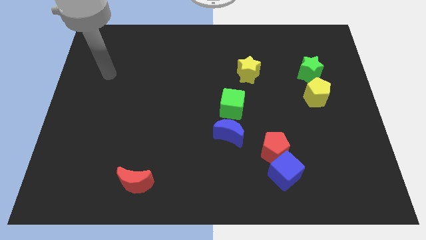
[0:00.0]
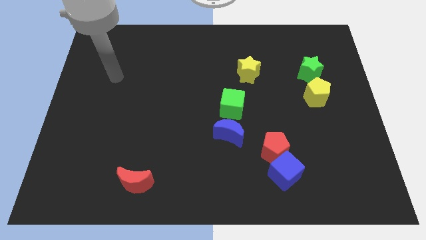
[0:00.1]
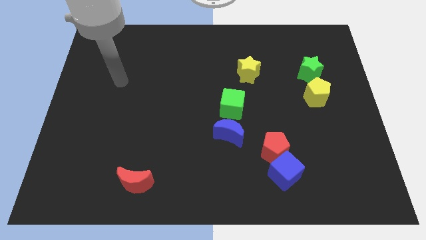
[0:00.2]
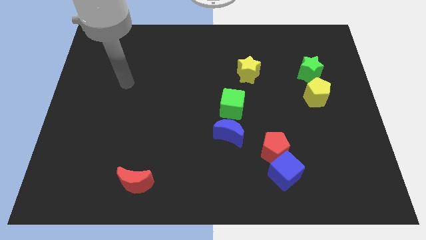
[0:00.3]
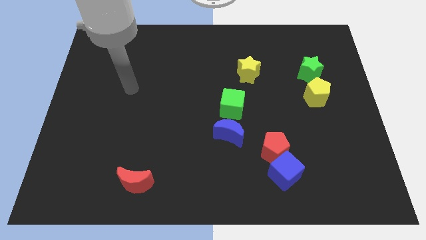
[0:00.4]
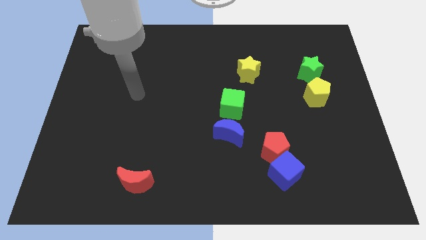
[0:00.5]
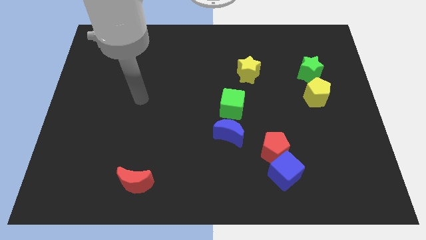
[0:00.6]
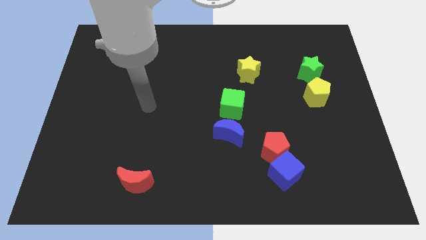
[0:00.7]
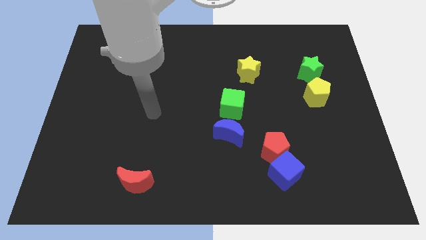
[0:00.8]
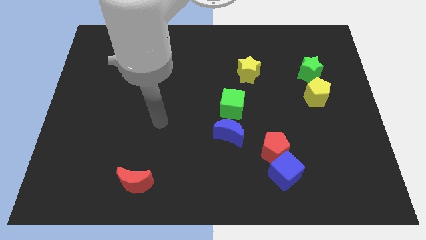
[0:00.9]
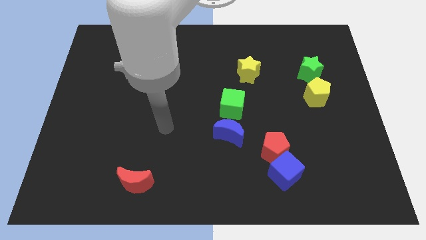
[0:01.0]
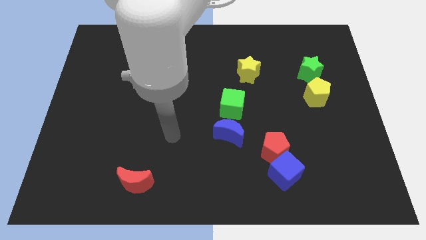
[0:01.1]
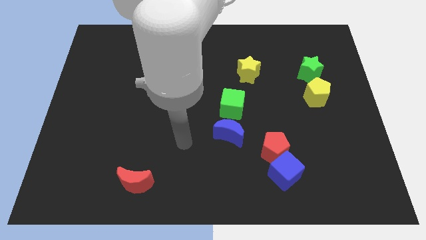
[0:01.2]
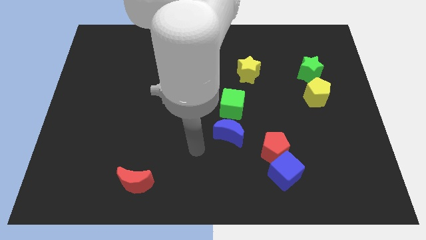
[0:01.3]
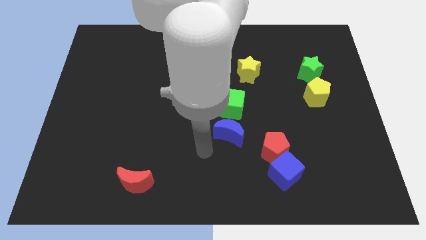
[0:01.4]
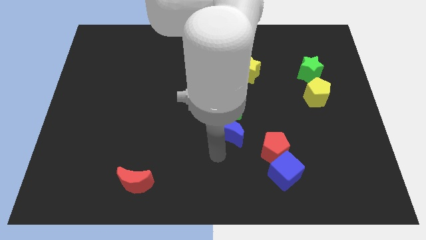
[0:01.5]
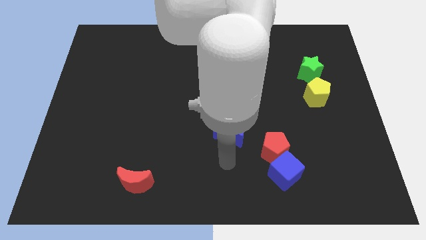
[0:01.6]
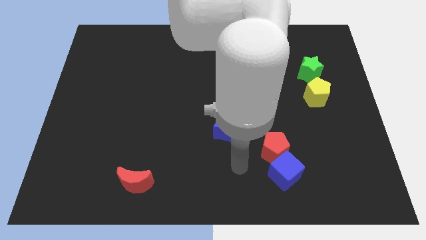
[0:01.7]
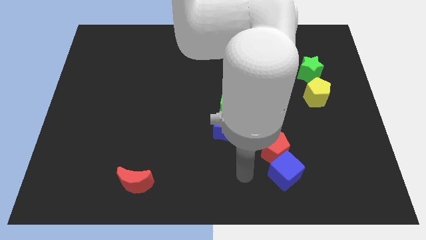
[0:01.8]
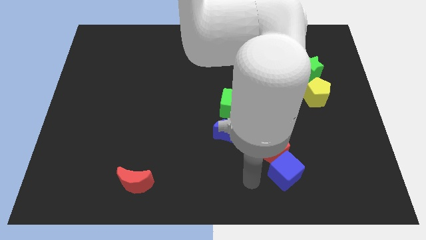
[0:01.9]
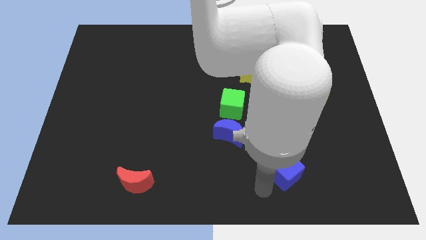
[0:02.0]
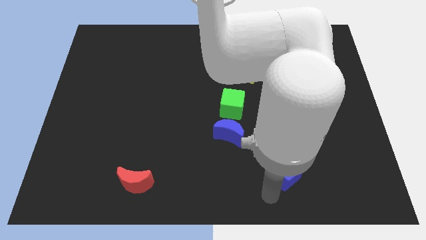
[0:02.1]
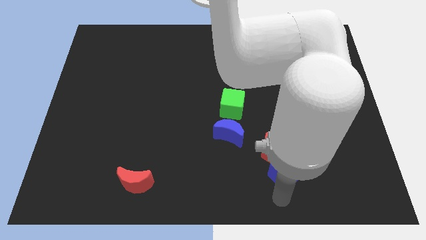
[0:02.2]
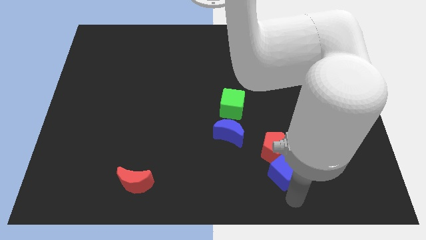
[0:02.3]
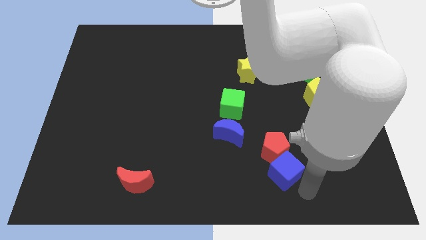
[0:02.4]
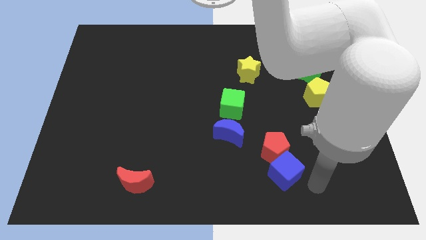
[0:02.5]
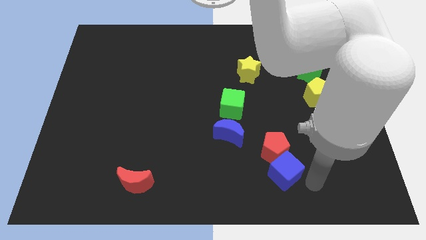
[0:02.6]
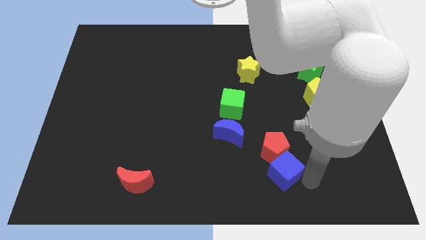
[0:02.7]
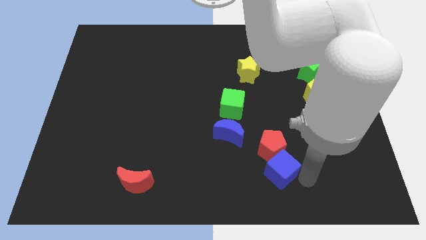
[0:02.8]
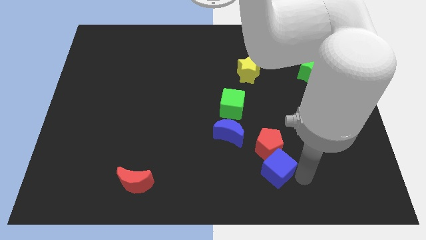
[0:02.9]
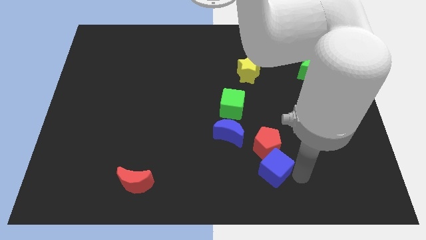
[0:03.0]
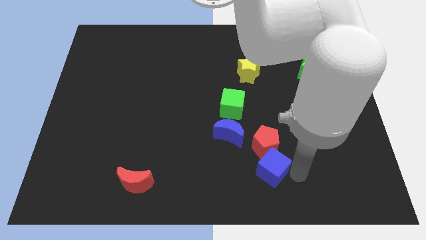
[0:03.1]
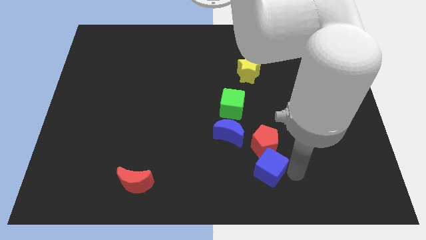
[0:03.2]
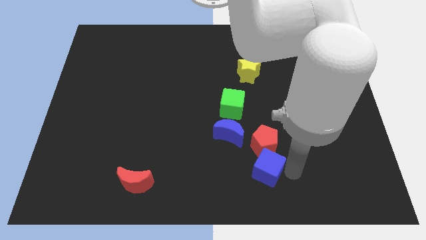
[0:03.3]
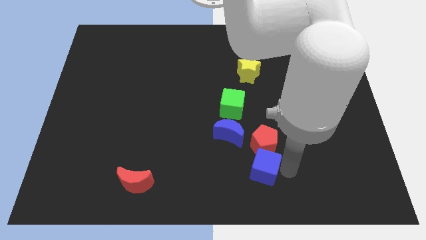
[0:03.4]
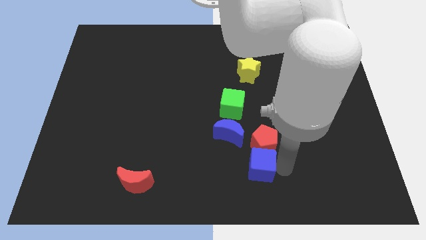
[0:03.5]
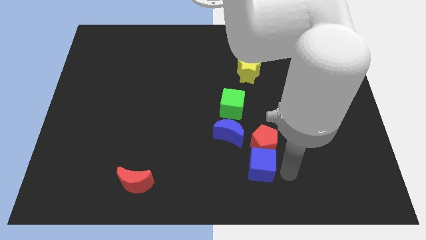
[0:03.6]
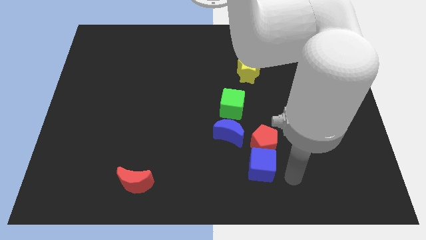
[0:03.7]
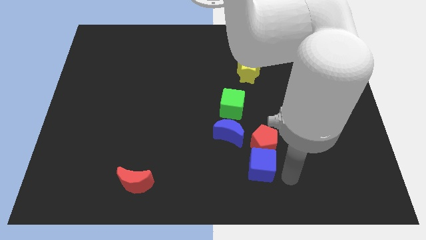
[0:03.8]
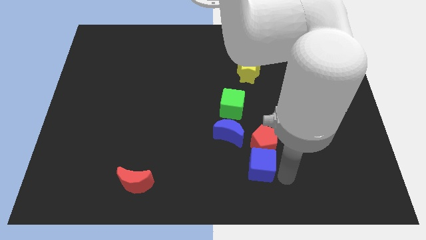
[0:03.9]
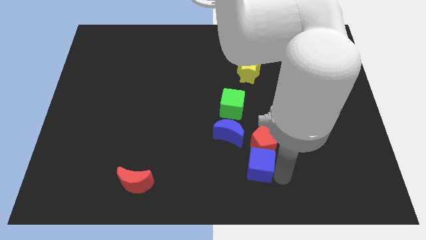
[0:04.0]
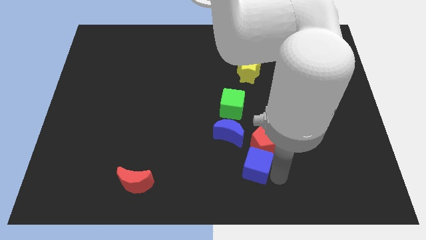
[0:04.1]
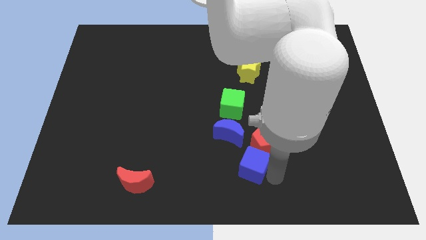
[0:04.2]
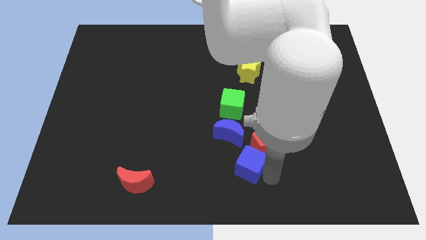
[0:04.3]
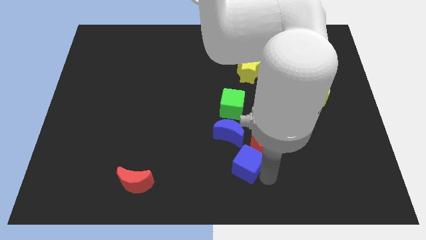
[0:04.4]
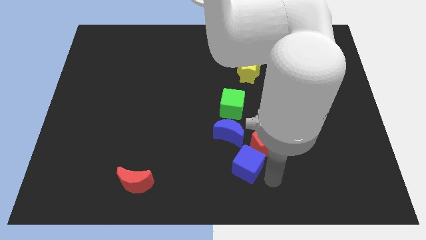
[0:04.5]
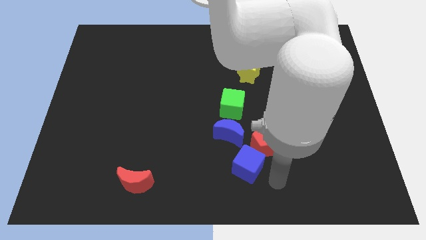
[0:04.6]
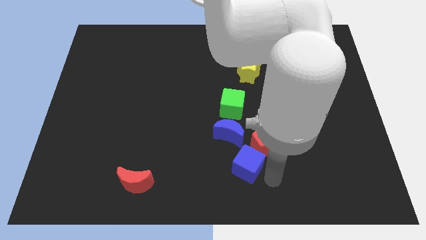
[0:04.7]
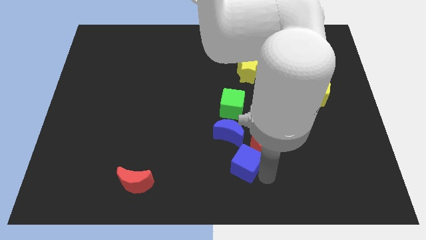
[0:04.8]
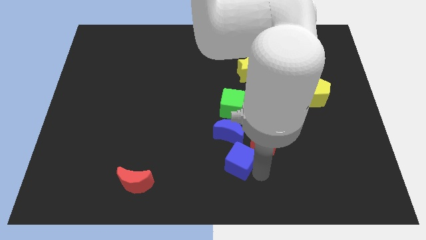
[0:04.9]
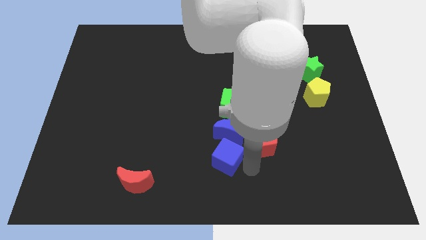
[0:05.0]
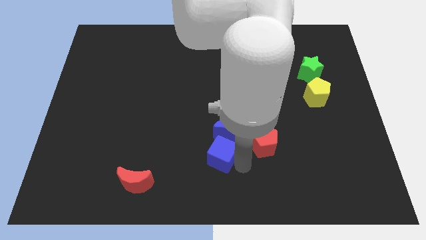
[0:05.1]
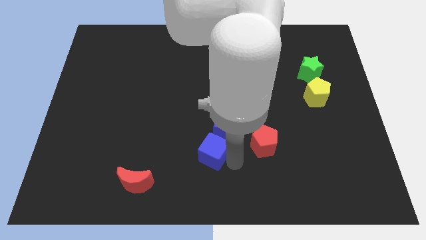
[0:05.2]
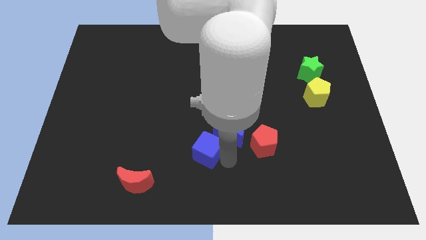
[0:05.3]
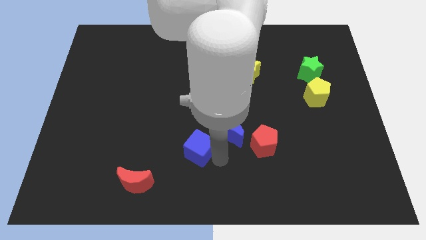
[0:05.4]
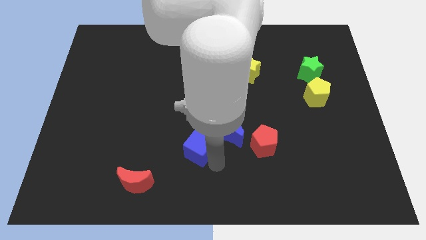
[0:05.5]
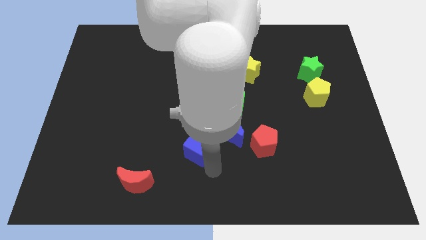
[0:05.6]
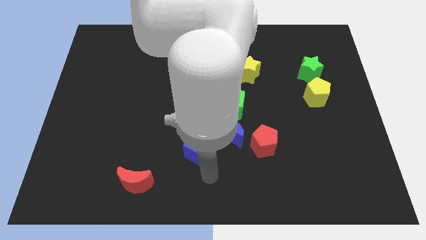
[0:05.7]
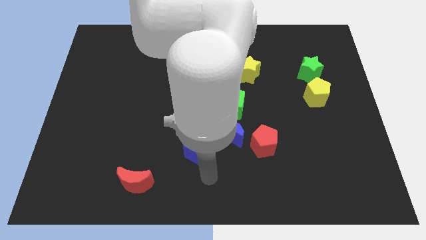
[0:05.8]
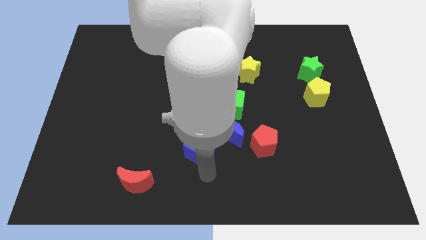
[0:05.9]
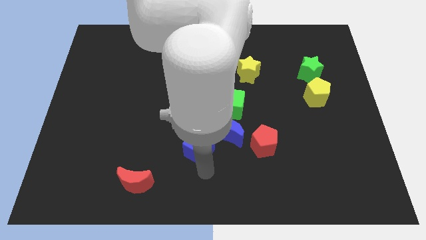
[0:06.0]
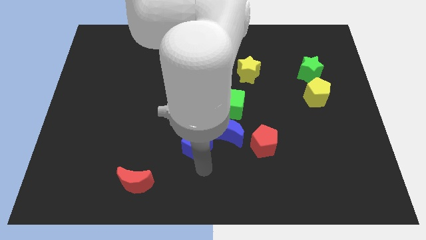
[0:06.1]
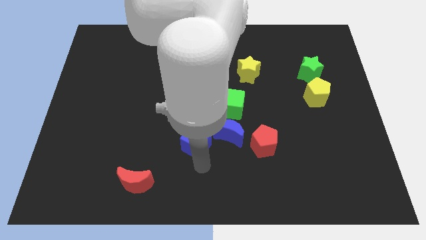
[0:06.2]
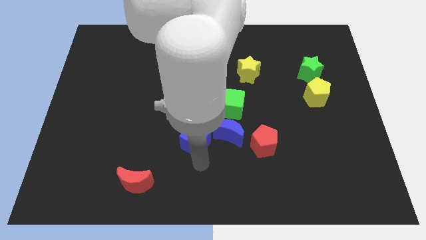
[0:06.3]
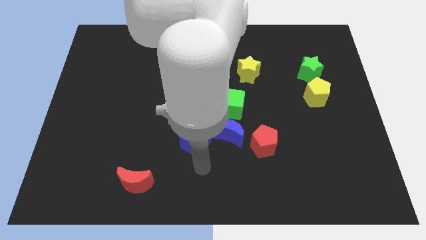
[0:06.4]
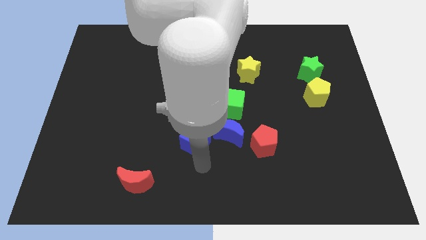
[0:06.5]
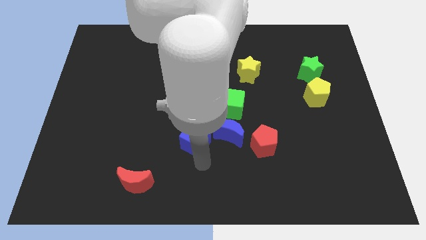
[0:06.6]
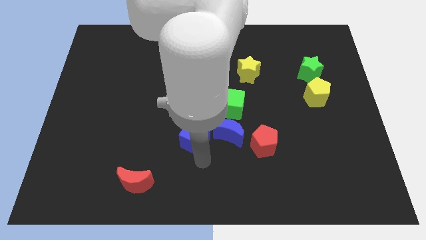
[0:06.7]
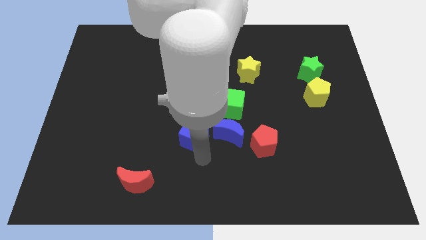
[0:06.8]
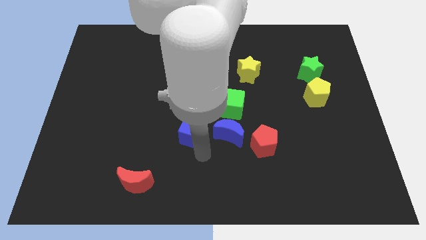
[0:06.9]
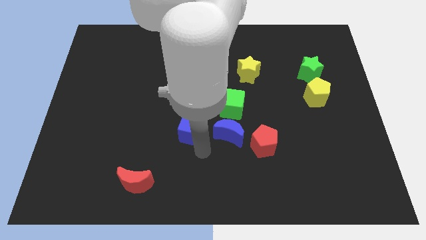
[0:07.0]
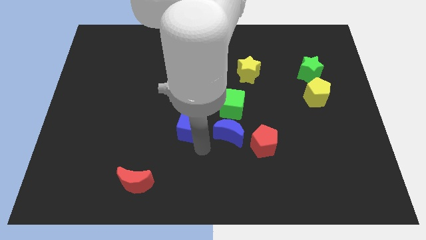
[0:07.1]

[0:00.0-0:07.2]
push the blue cube up and left

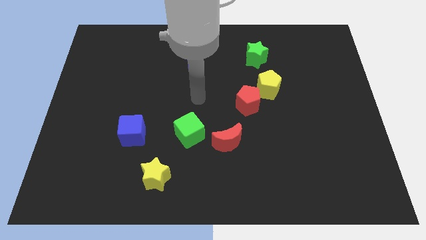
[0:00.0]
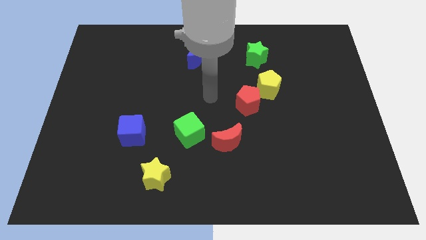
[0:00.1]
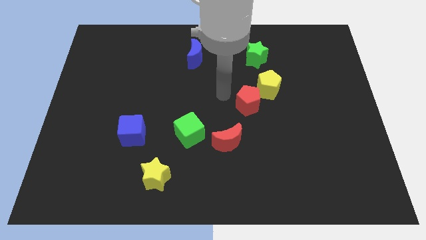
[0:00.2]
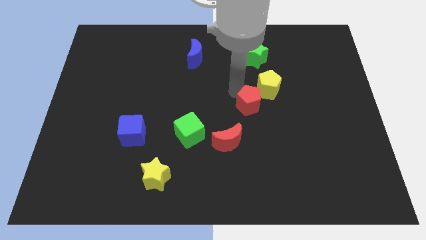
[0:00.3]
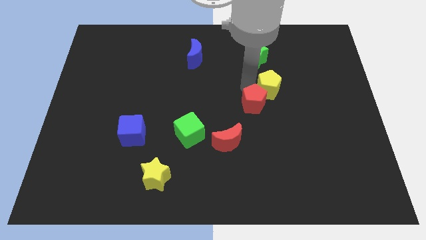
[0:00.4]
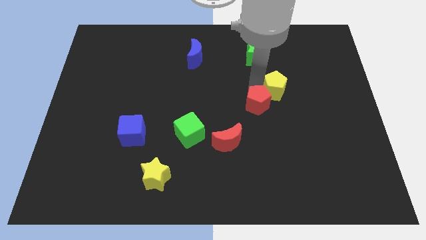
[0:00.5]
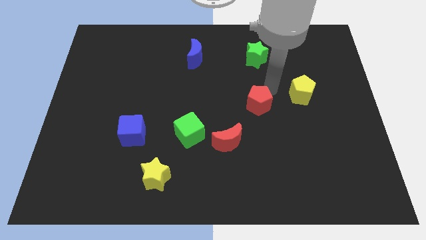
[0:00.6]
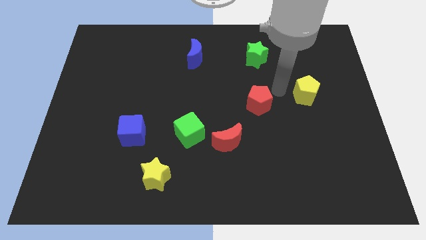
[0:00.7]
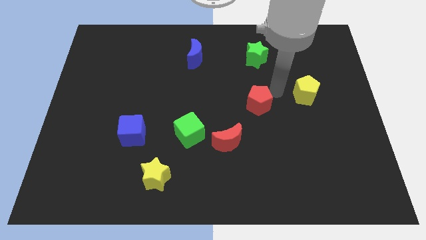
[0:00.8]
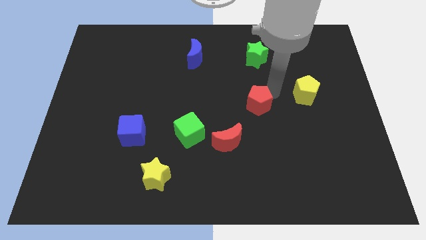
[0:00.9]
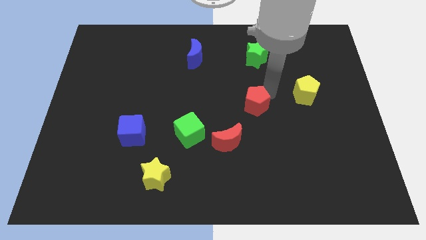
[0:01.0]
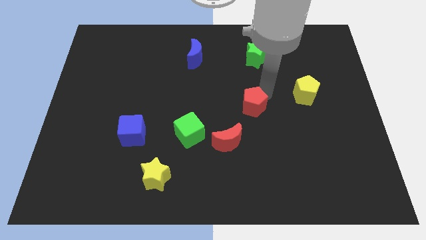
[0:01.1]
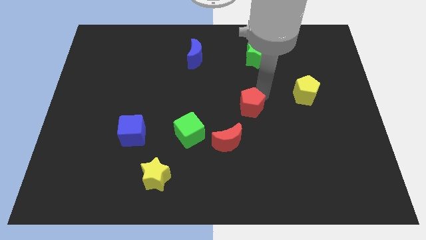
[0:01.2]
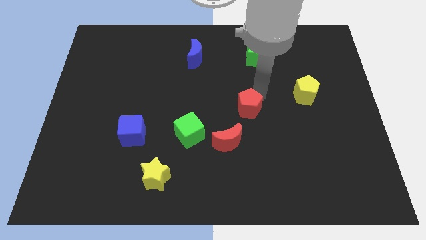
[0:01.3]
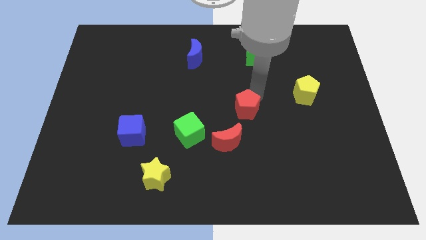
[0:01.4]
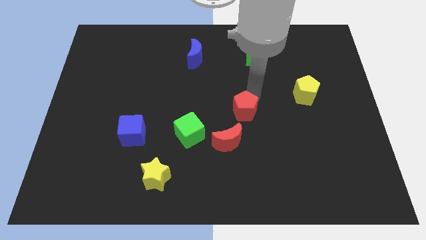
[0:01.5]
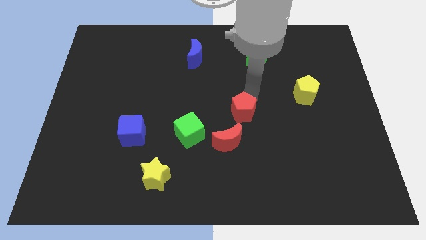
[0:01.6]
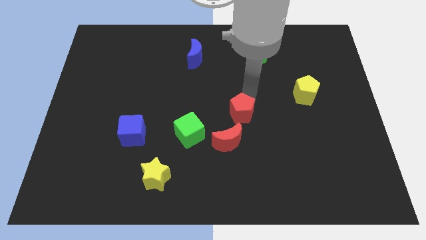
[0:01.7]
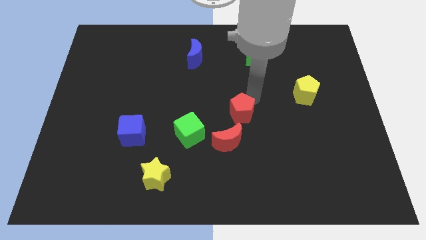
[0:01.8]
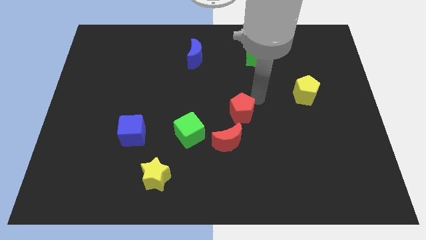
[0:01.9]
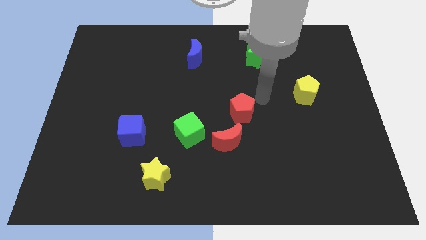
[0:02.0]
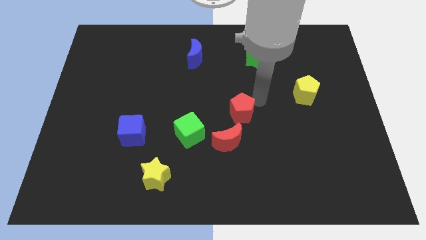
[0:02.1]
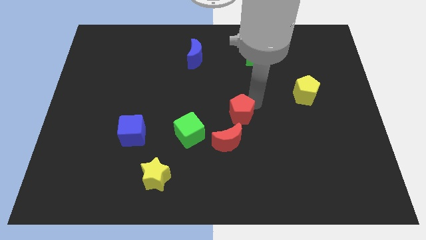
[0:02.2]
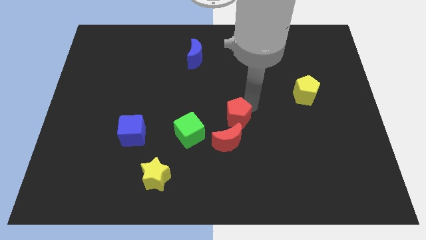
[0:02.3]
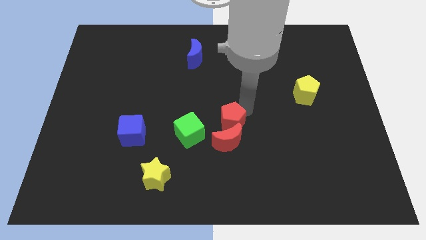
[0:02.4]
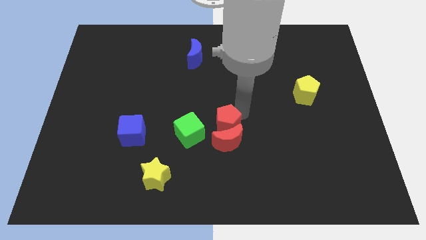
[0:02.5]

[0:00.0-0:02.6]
push the red pentagon somewhat down and then left
